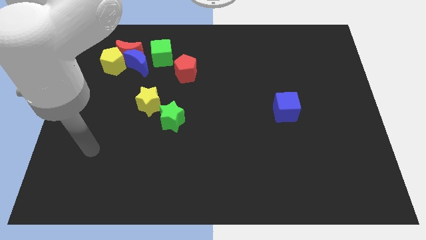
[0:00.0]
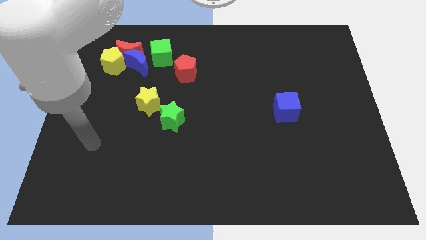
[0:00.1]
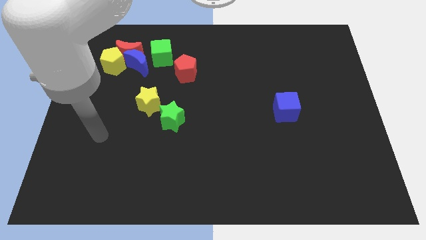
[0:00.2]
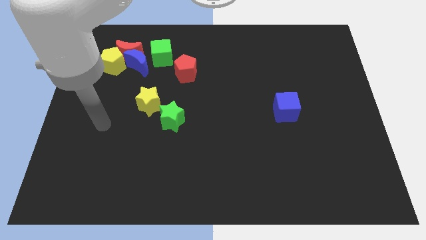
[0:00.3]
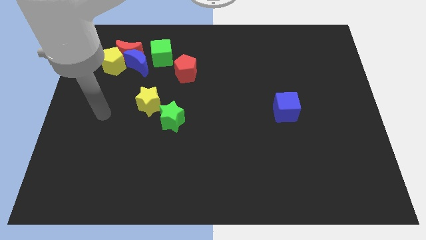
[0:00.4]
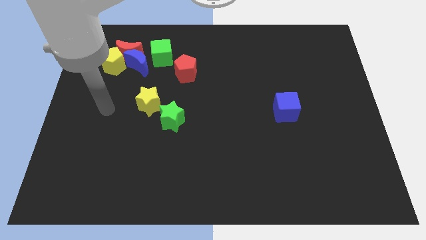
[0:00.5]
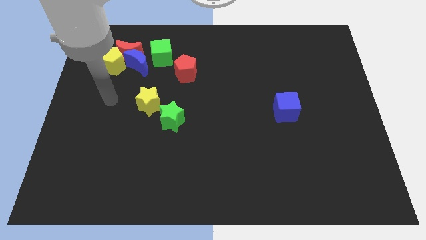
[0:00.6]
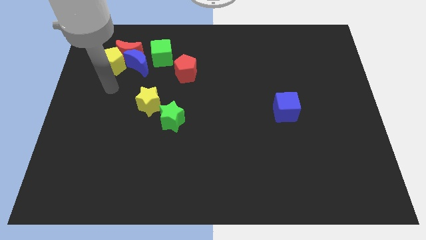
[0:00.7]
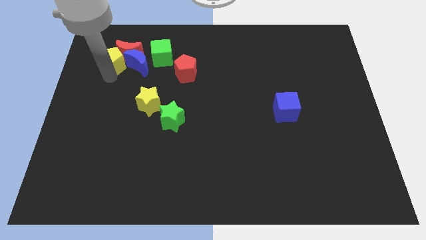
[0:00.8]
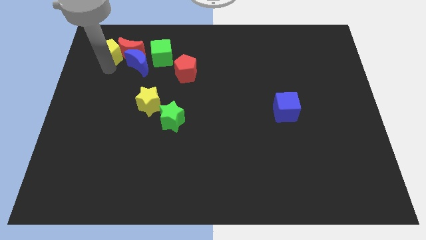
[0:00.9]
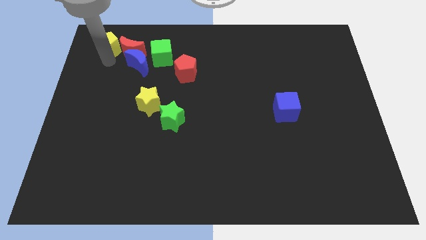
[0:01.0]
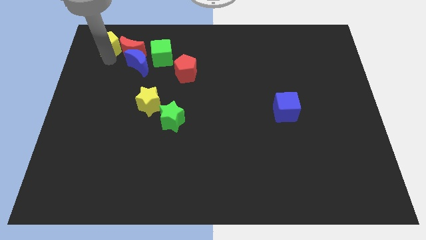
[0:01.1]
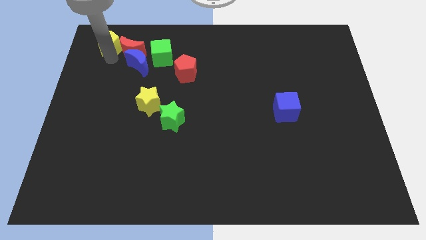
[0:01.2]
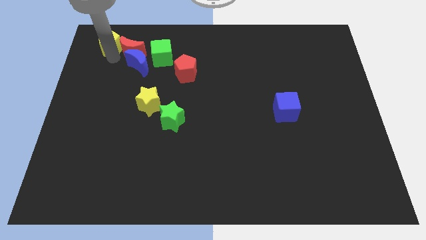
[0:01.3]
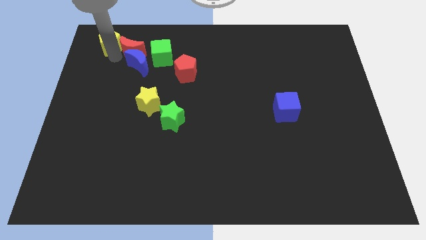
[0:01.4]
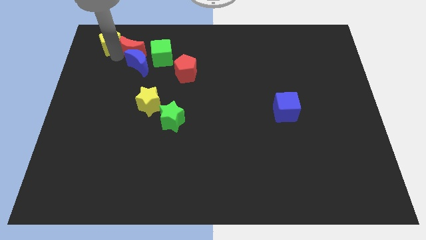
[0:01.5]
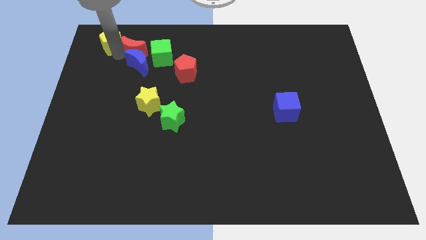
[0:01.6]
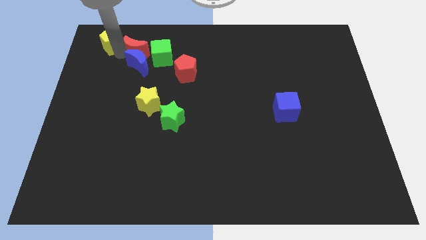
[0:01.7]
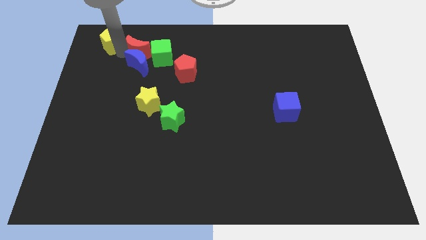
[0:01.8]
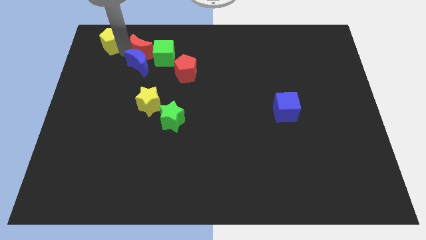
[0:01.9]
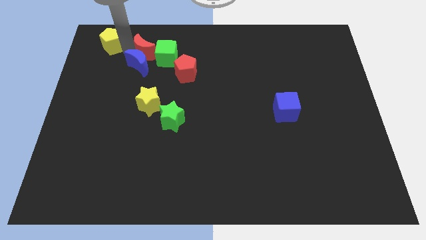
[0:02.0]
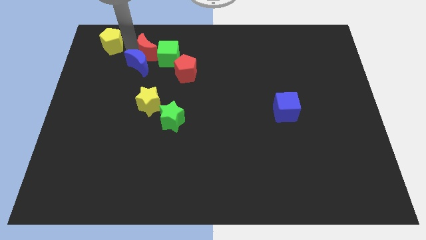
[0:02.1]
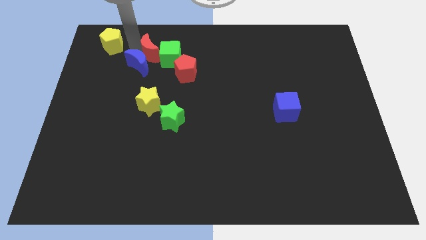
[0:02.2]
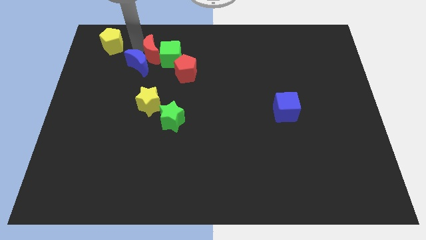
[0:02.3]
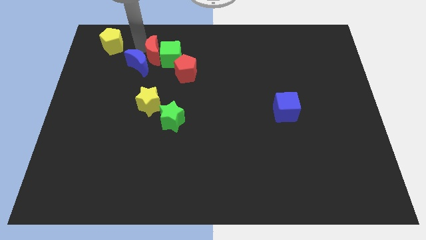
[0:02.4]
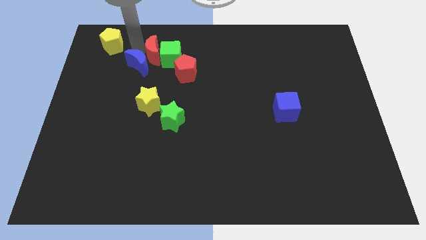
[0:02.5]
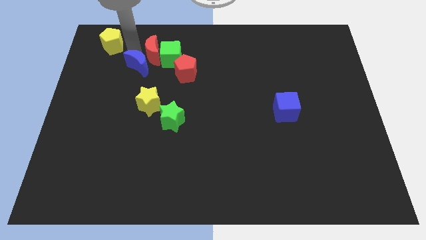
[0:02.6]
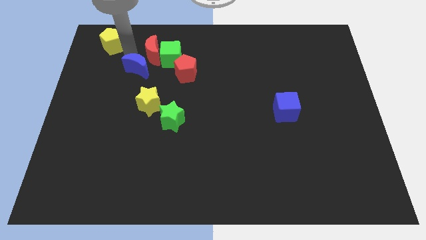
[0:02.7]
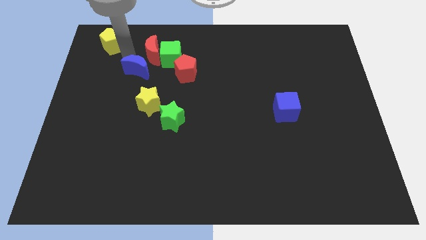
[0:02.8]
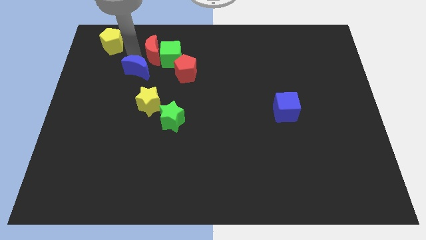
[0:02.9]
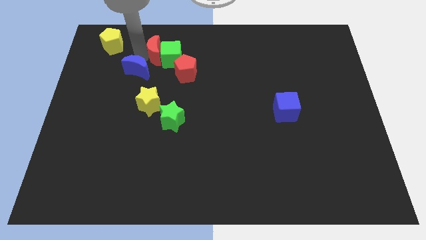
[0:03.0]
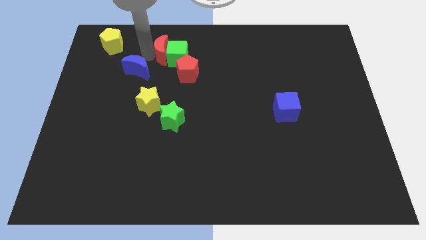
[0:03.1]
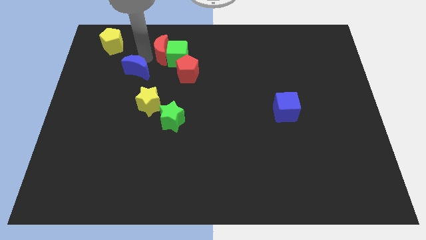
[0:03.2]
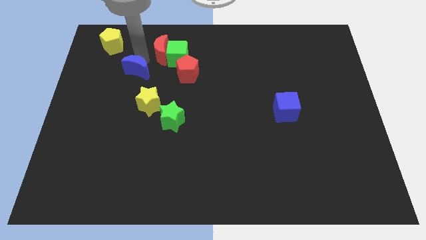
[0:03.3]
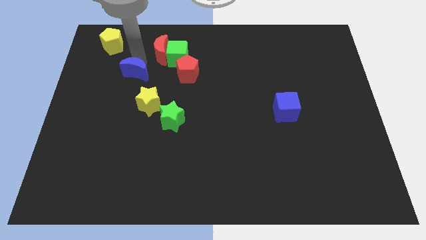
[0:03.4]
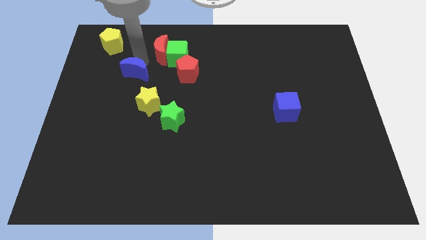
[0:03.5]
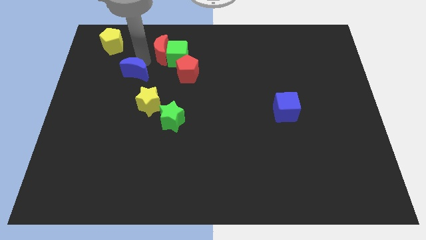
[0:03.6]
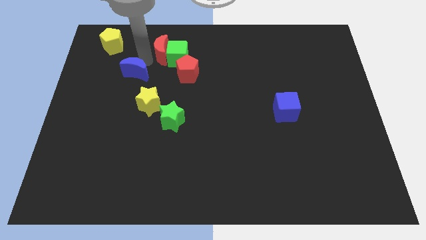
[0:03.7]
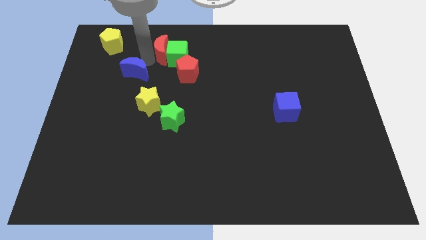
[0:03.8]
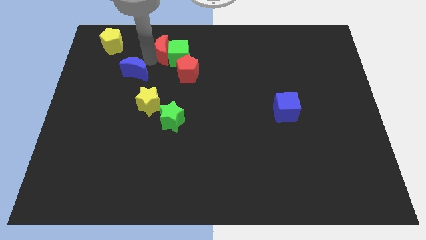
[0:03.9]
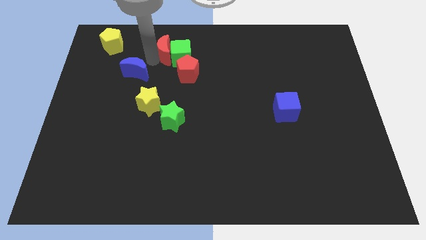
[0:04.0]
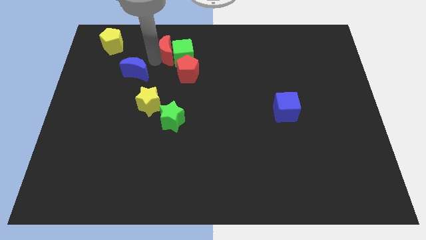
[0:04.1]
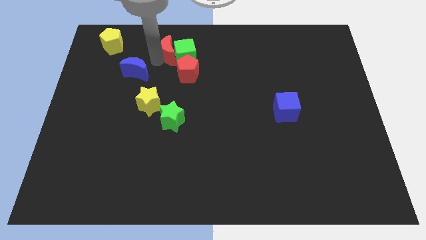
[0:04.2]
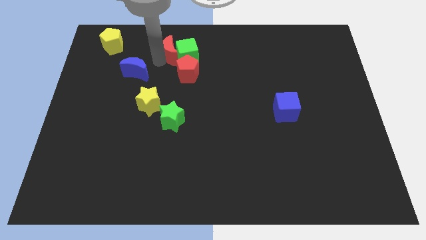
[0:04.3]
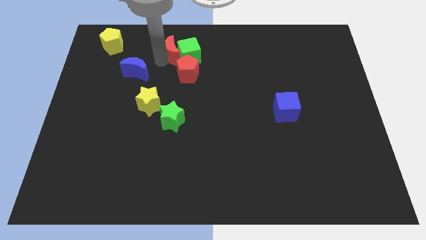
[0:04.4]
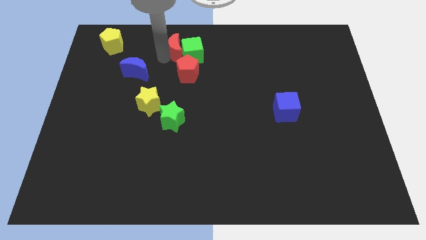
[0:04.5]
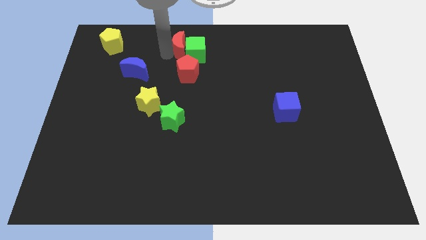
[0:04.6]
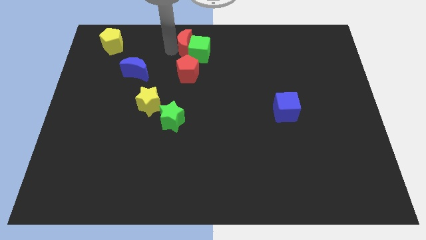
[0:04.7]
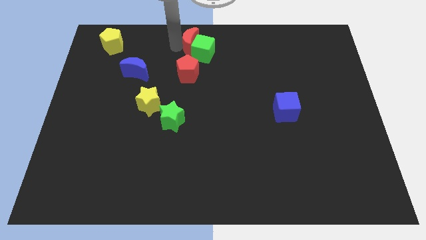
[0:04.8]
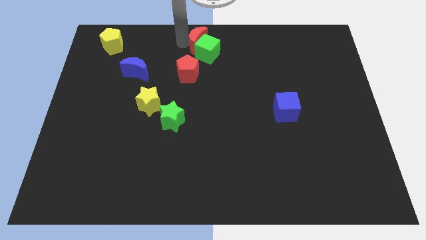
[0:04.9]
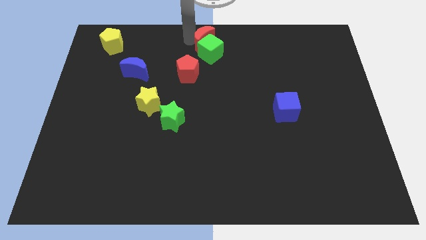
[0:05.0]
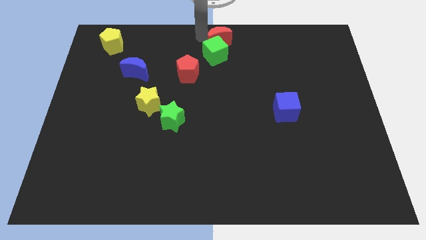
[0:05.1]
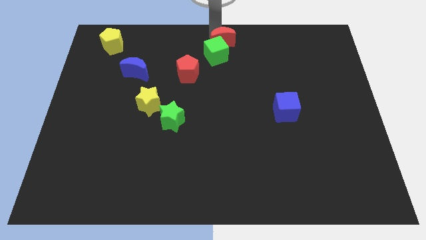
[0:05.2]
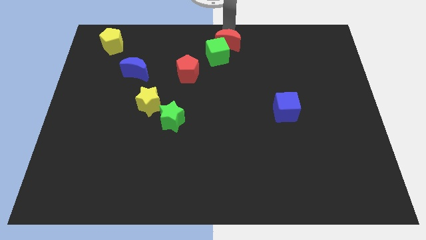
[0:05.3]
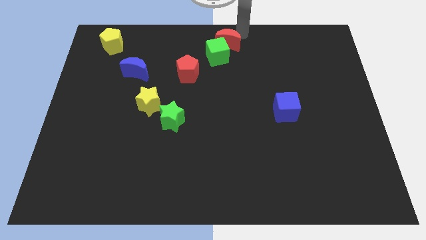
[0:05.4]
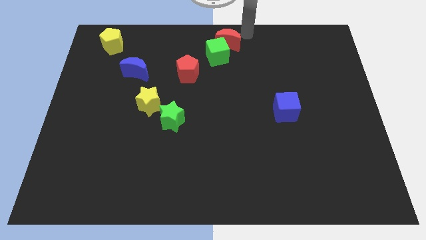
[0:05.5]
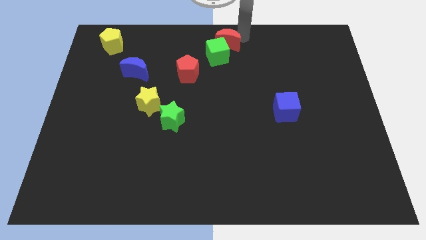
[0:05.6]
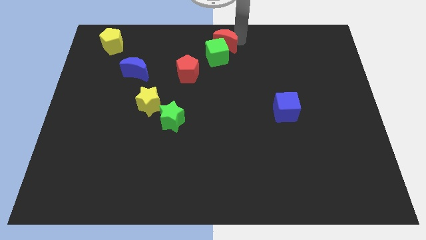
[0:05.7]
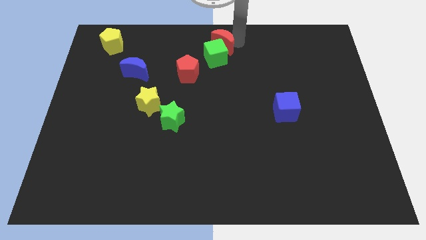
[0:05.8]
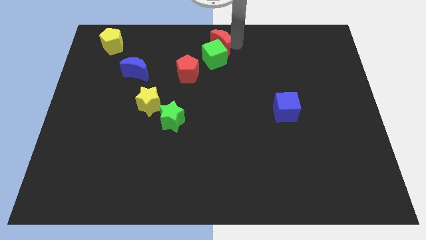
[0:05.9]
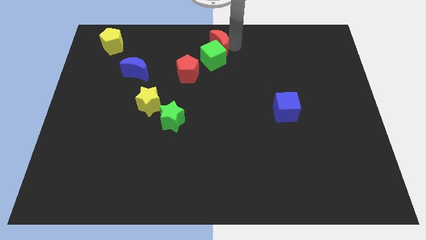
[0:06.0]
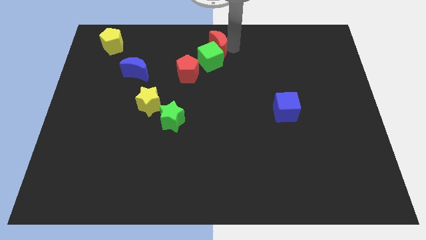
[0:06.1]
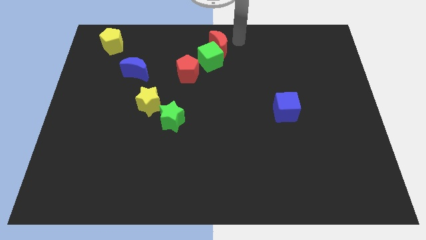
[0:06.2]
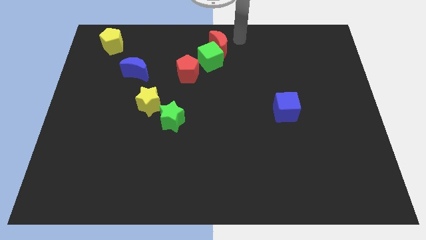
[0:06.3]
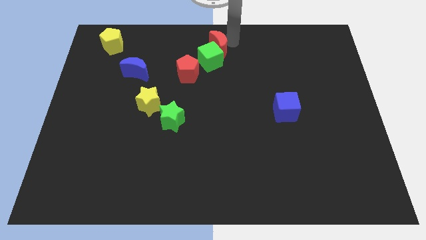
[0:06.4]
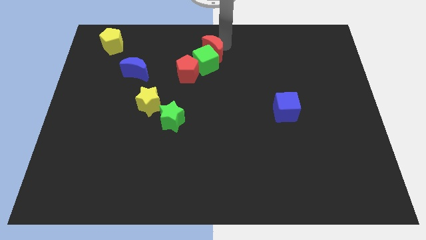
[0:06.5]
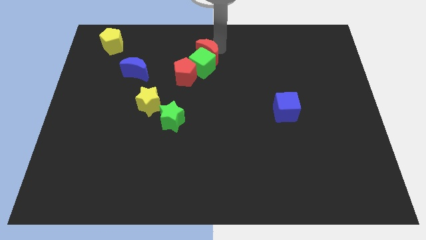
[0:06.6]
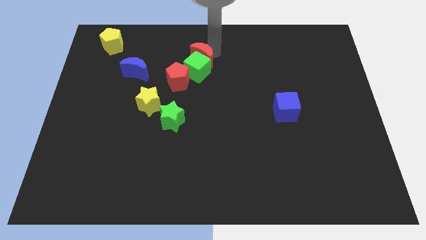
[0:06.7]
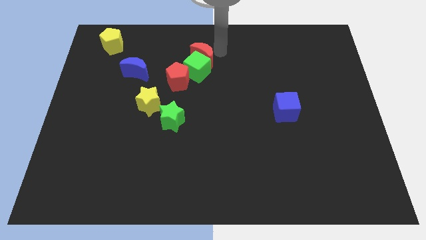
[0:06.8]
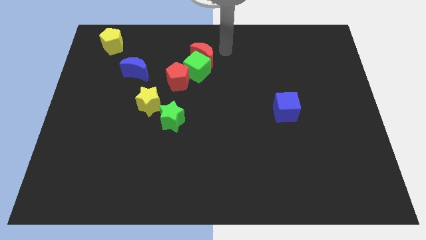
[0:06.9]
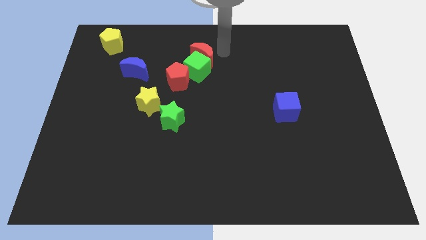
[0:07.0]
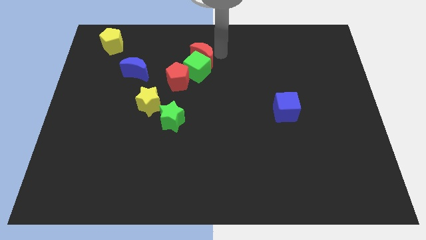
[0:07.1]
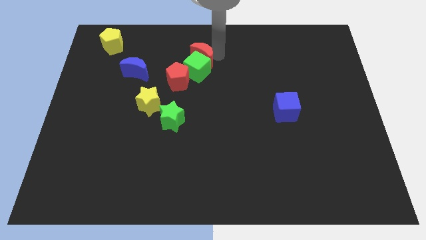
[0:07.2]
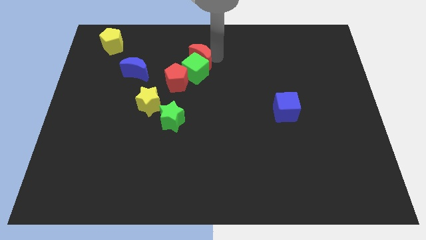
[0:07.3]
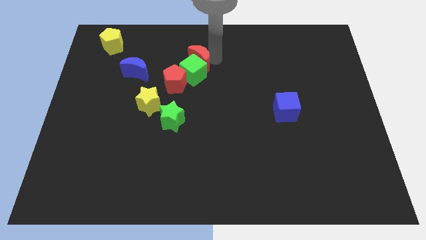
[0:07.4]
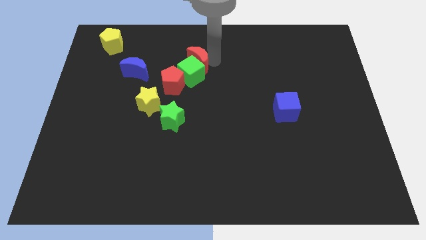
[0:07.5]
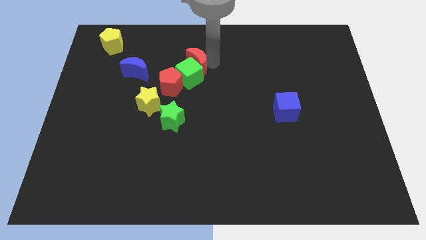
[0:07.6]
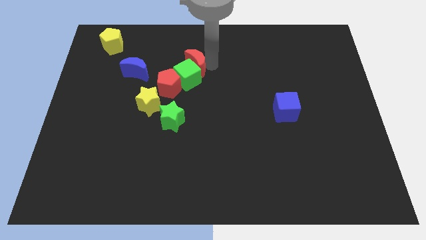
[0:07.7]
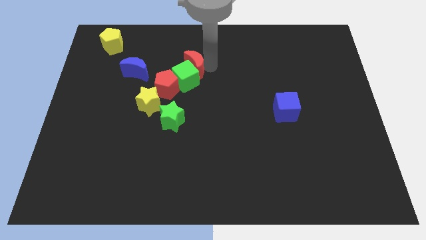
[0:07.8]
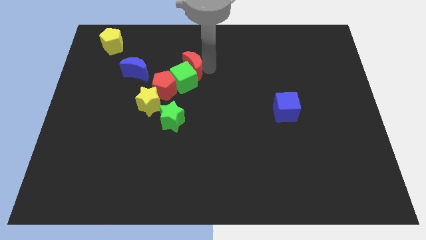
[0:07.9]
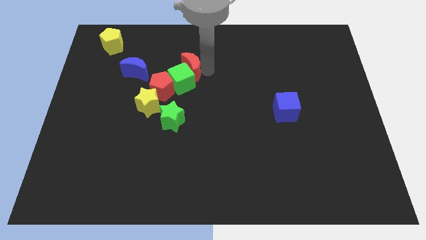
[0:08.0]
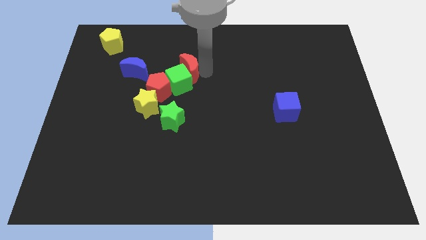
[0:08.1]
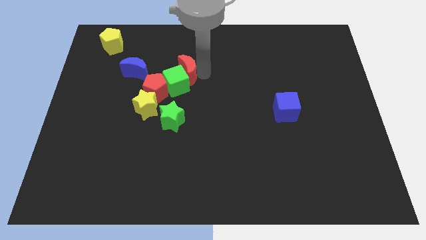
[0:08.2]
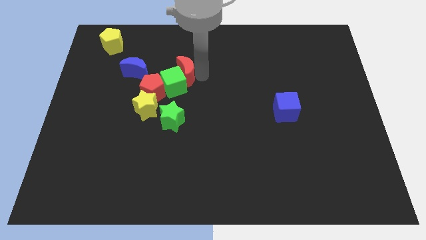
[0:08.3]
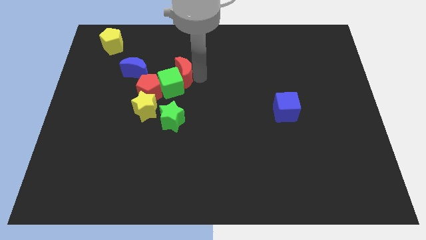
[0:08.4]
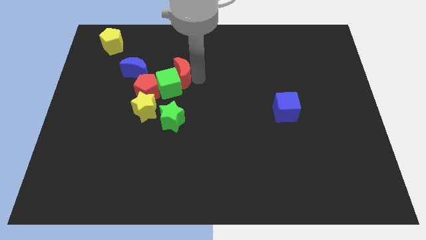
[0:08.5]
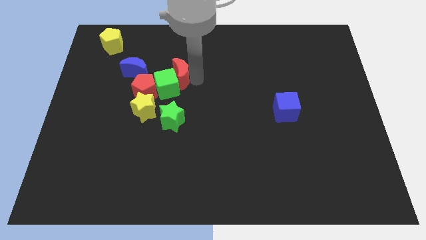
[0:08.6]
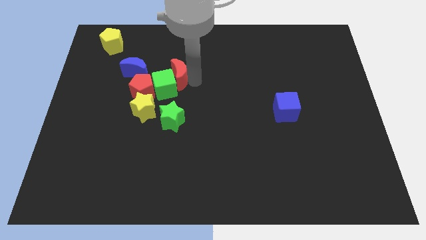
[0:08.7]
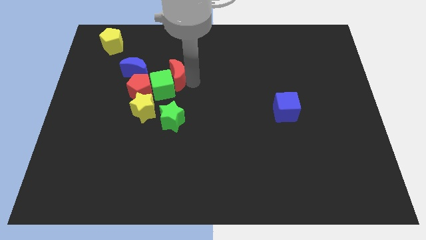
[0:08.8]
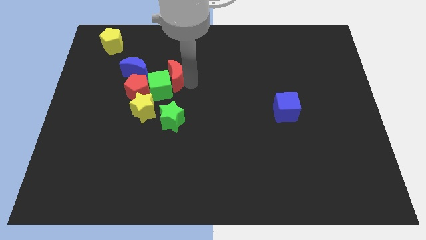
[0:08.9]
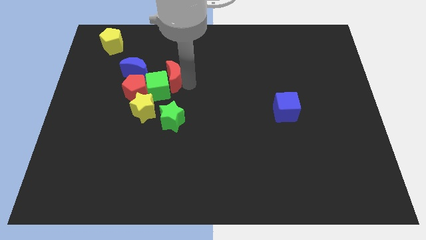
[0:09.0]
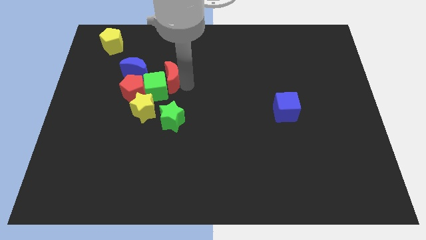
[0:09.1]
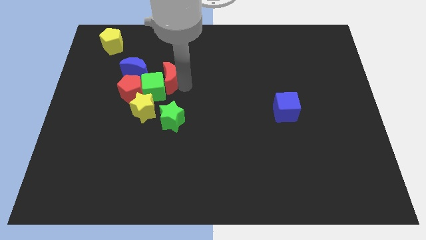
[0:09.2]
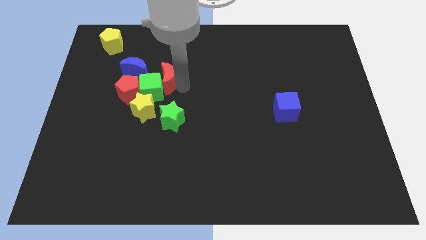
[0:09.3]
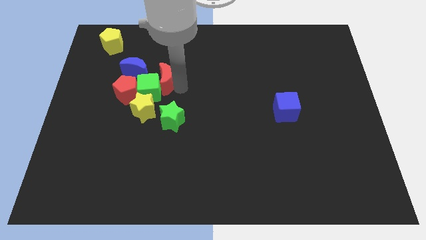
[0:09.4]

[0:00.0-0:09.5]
put the red moon to the top of the yellow star
